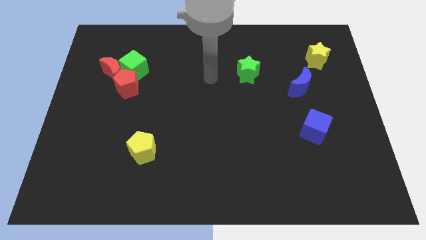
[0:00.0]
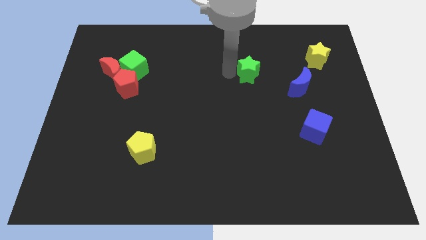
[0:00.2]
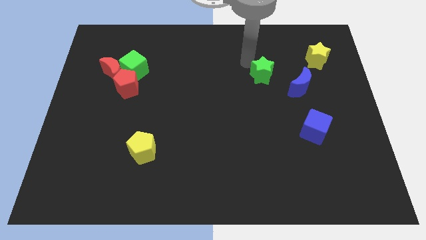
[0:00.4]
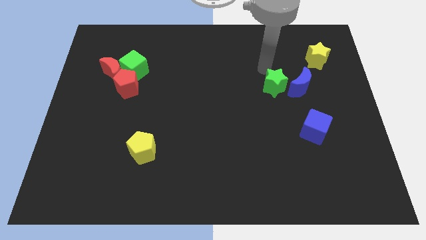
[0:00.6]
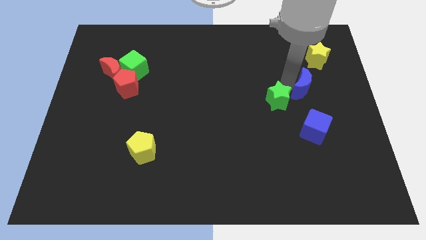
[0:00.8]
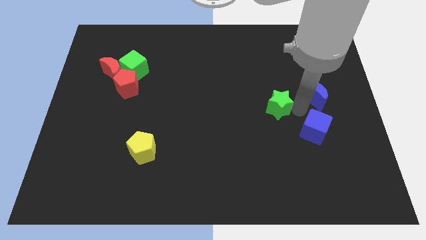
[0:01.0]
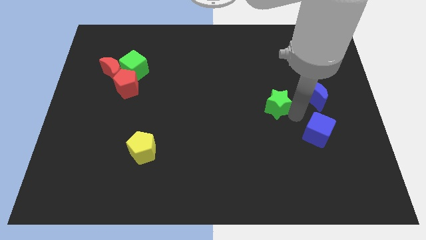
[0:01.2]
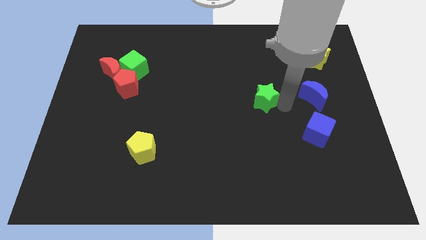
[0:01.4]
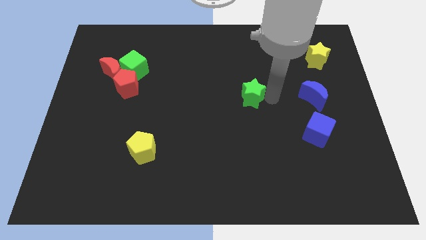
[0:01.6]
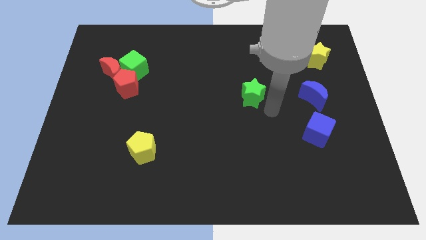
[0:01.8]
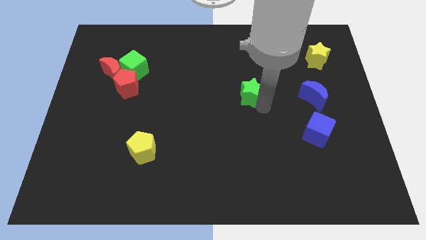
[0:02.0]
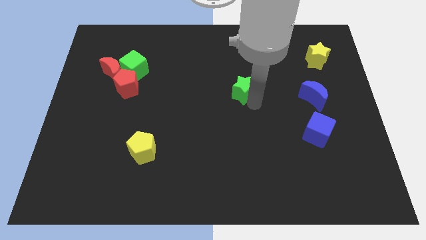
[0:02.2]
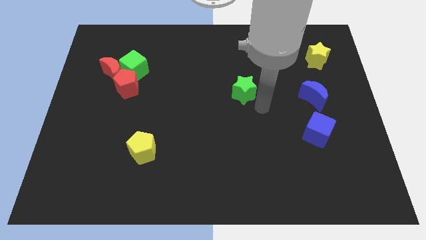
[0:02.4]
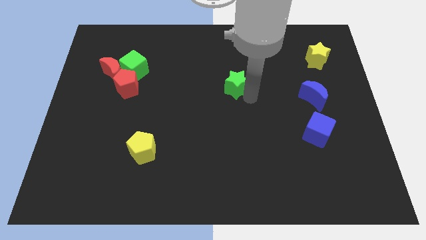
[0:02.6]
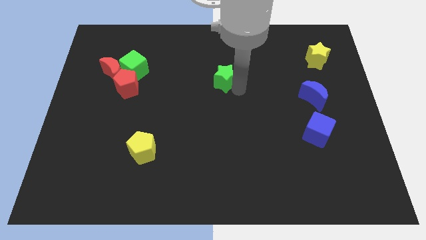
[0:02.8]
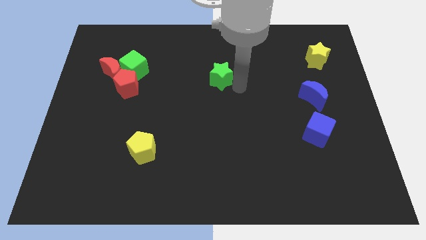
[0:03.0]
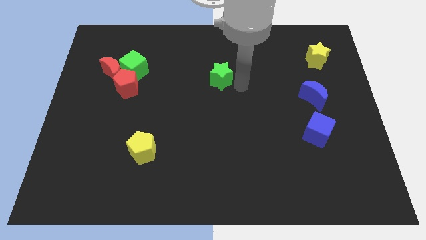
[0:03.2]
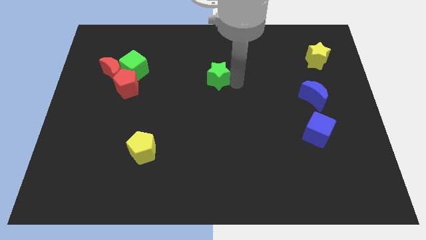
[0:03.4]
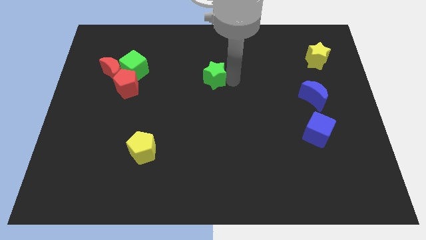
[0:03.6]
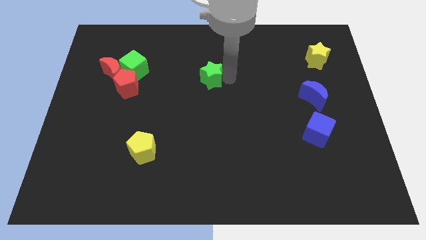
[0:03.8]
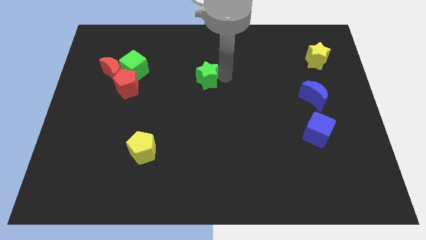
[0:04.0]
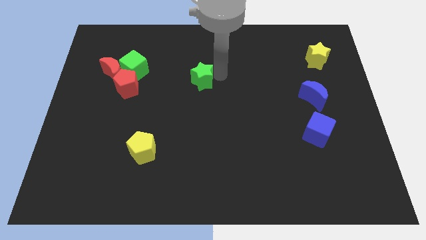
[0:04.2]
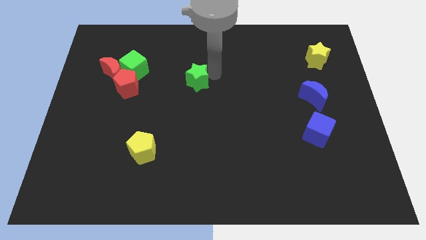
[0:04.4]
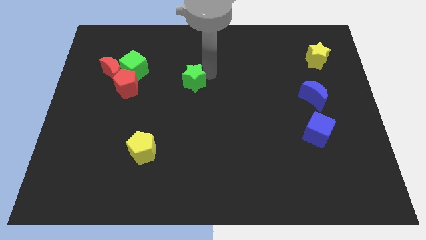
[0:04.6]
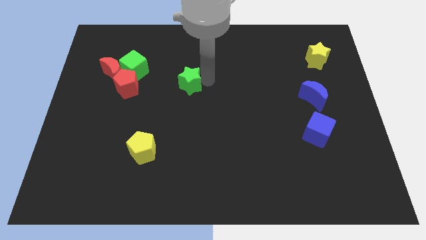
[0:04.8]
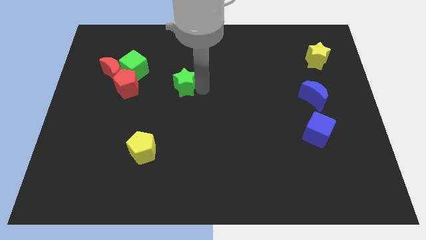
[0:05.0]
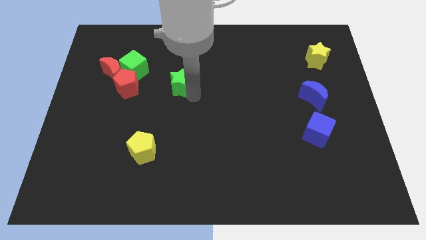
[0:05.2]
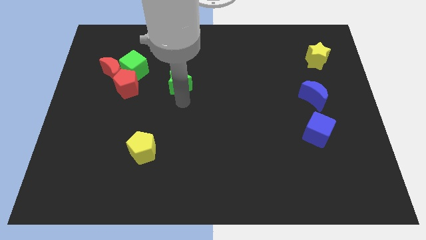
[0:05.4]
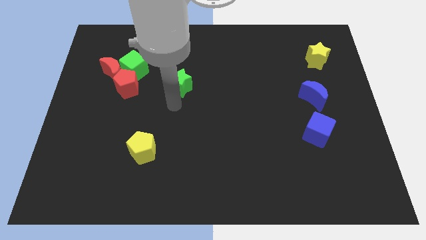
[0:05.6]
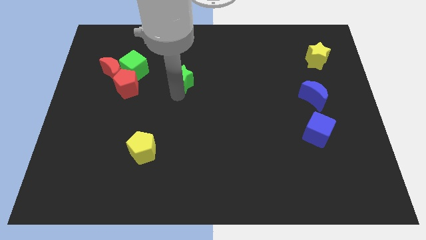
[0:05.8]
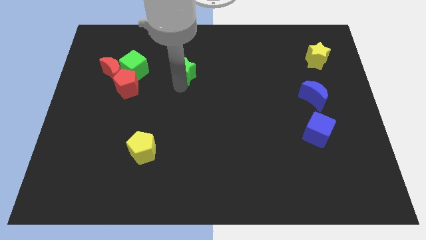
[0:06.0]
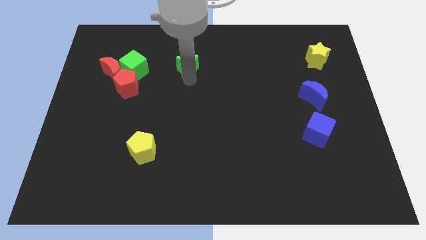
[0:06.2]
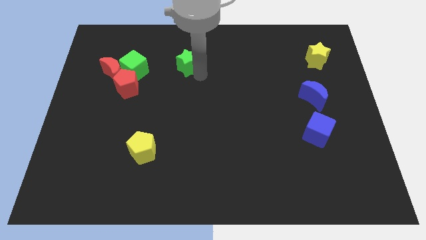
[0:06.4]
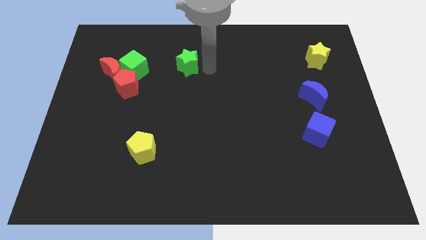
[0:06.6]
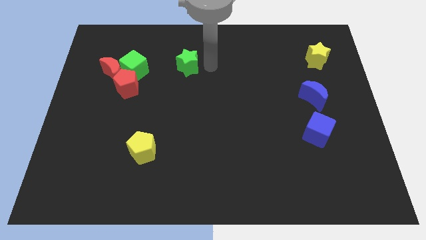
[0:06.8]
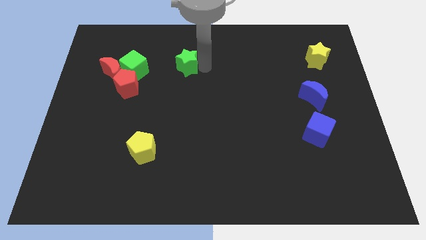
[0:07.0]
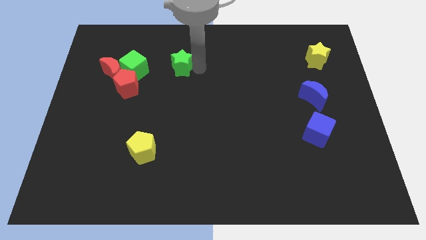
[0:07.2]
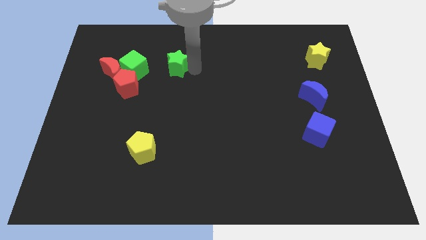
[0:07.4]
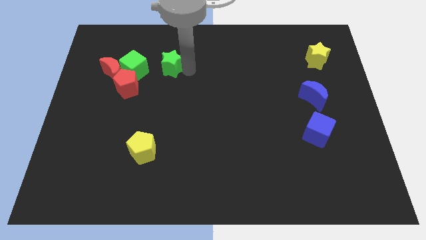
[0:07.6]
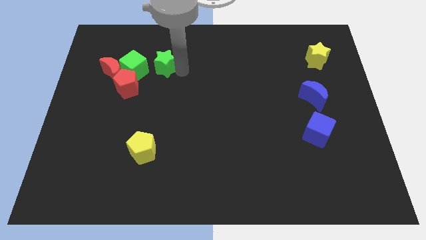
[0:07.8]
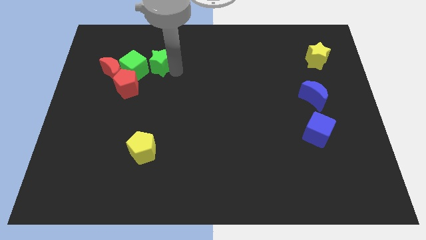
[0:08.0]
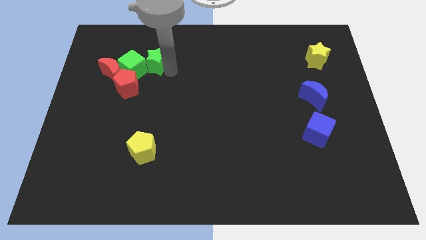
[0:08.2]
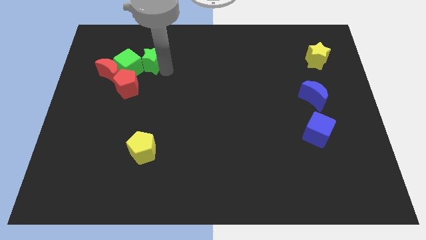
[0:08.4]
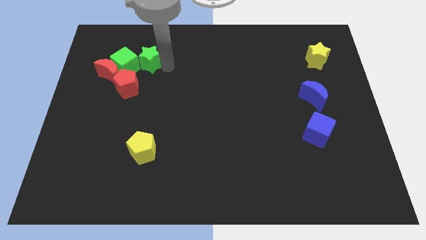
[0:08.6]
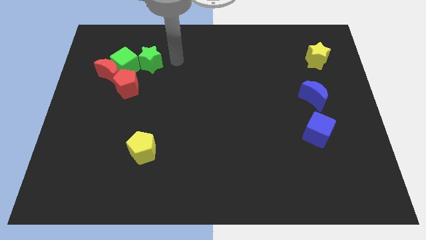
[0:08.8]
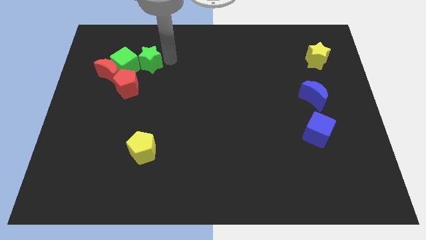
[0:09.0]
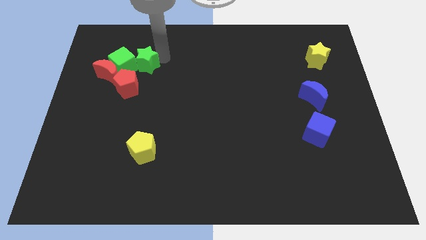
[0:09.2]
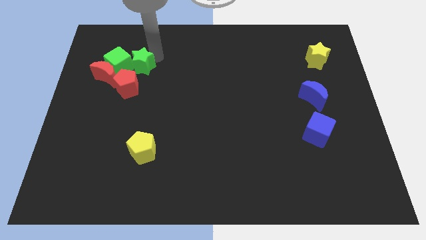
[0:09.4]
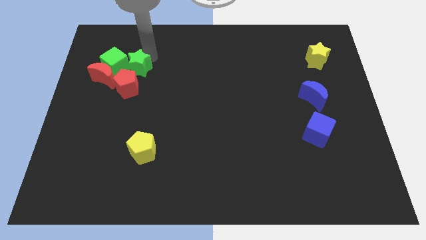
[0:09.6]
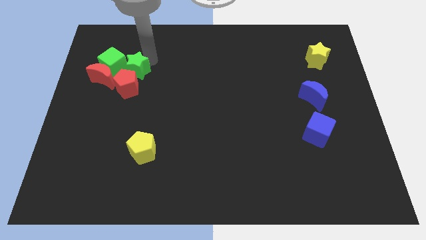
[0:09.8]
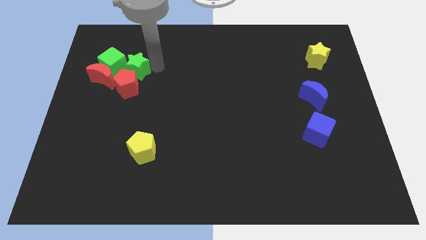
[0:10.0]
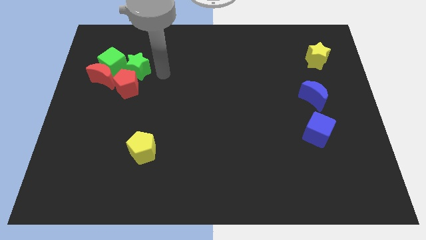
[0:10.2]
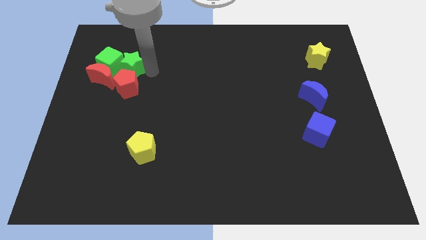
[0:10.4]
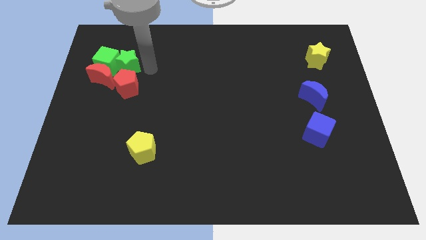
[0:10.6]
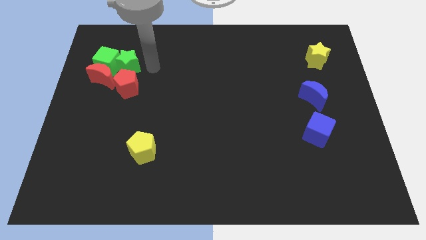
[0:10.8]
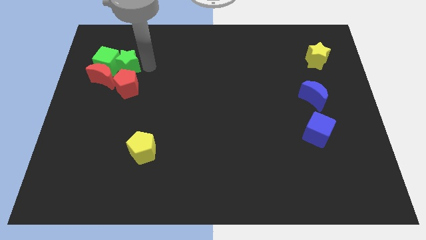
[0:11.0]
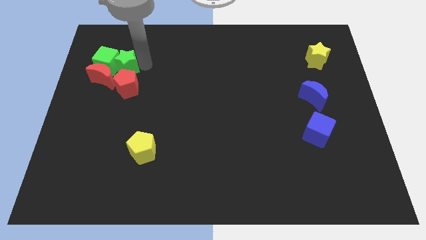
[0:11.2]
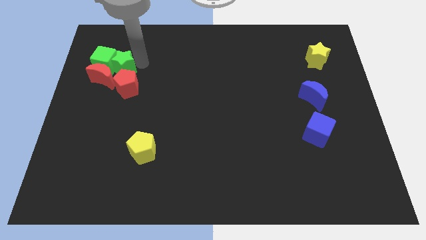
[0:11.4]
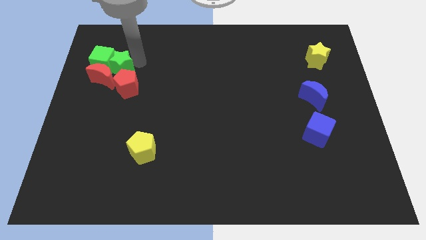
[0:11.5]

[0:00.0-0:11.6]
slide the green star close to the red moon

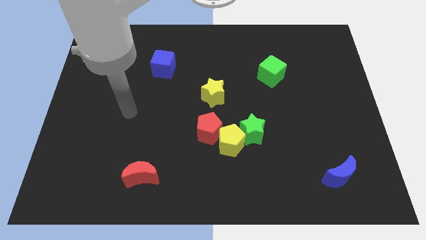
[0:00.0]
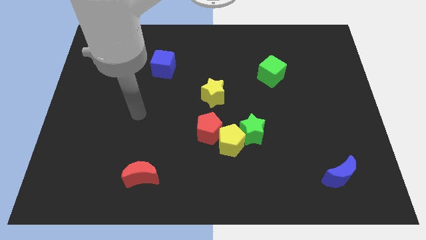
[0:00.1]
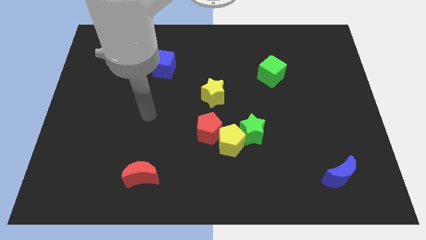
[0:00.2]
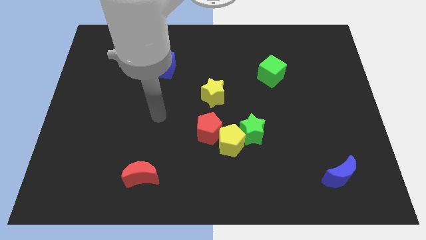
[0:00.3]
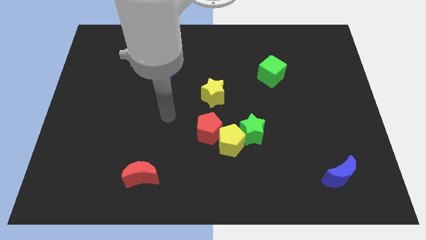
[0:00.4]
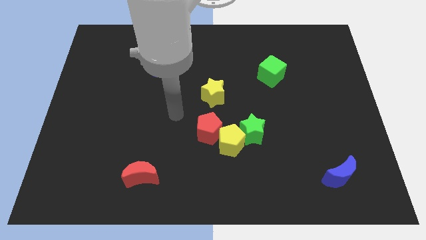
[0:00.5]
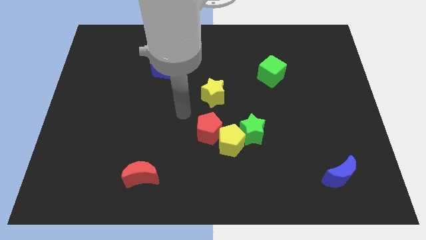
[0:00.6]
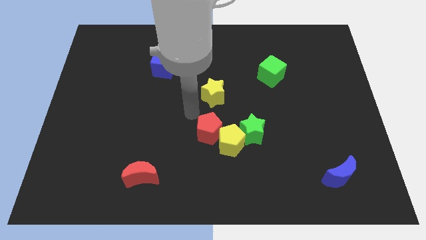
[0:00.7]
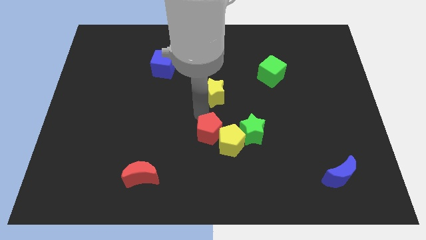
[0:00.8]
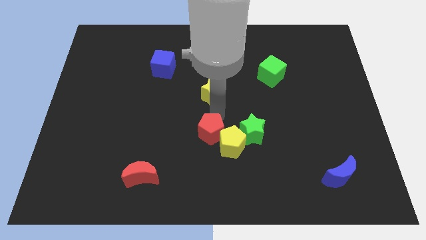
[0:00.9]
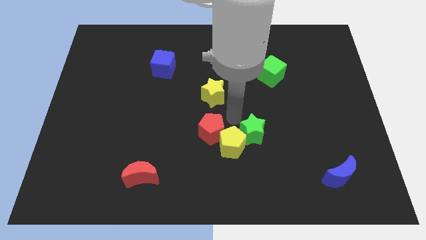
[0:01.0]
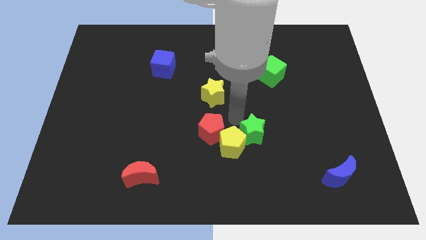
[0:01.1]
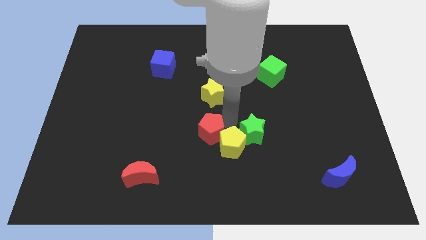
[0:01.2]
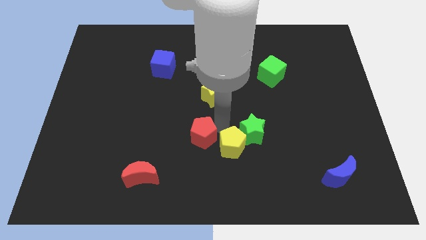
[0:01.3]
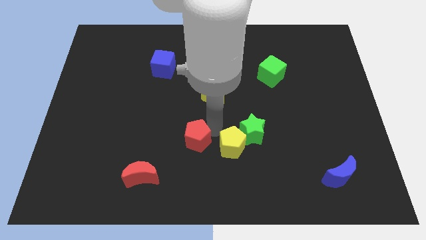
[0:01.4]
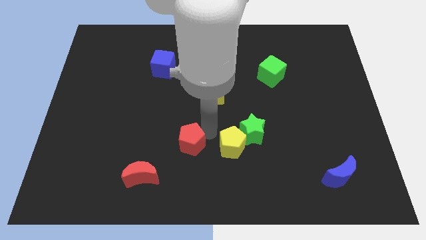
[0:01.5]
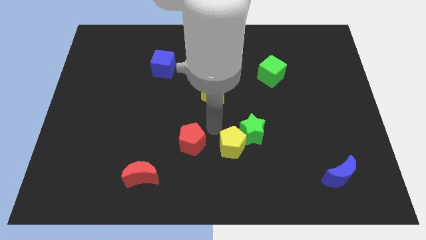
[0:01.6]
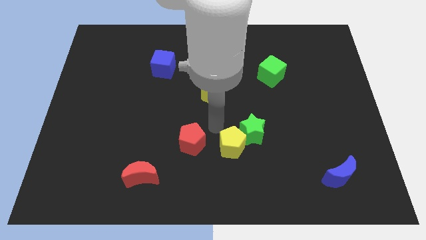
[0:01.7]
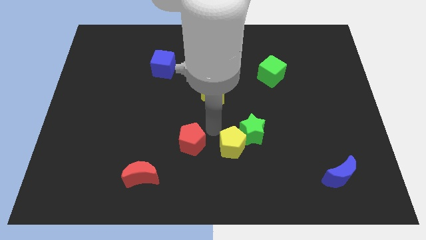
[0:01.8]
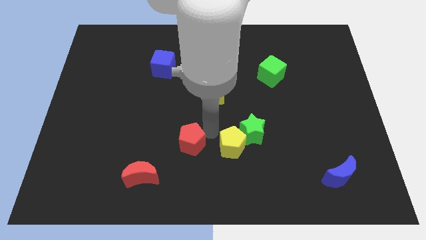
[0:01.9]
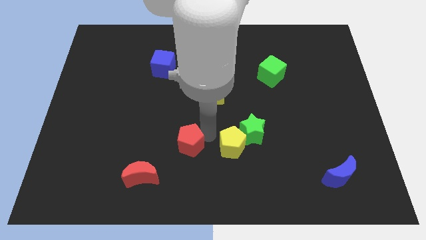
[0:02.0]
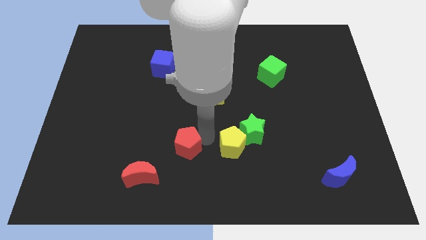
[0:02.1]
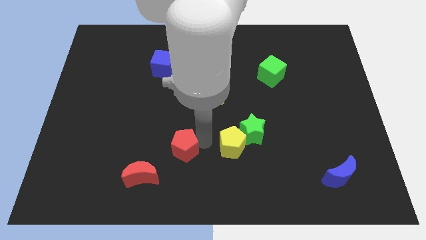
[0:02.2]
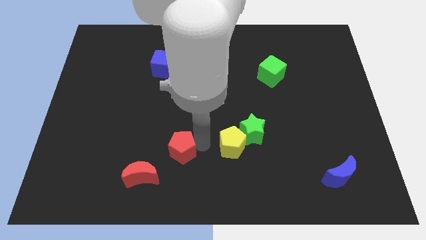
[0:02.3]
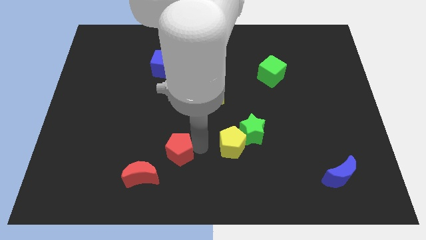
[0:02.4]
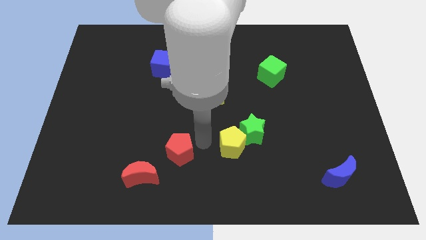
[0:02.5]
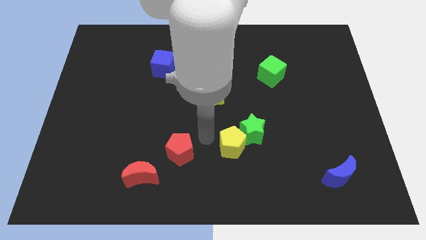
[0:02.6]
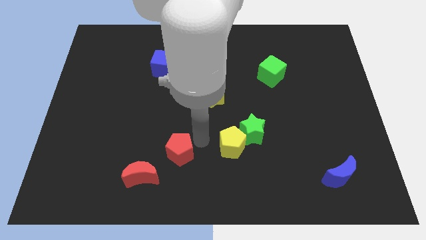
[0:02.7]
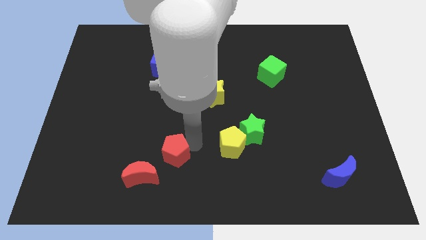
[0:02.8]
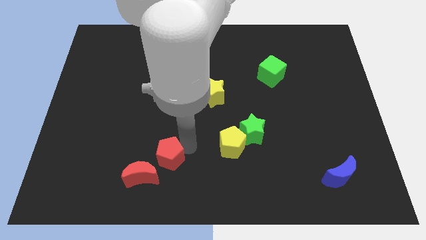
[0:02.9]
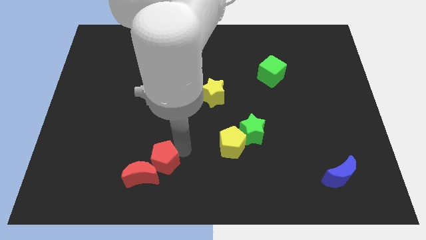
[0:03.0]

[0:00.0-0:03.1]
push the red pentagon close to the red moon
